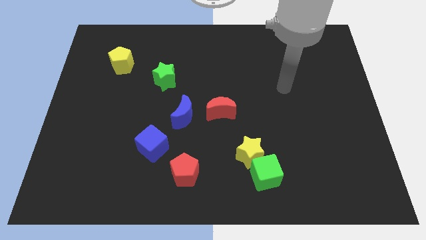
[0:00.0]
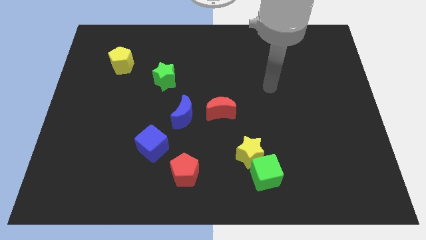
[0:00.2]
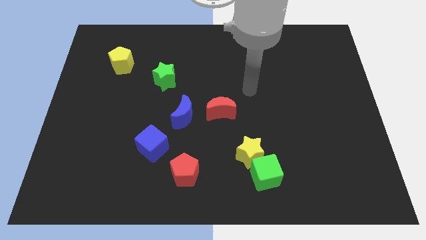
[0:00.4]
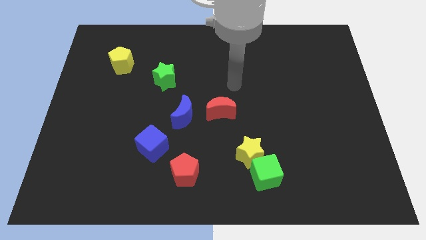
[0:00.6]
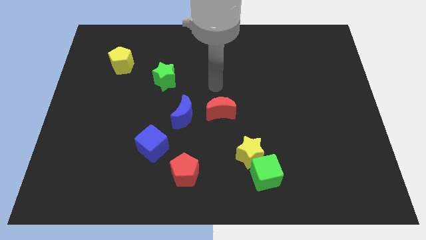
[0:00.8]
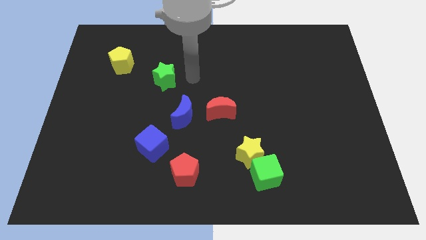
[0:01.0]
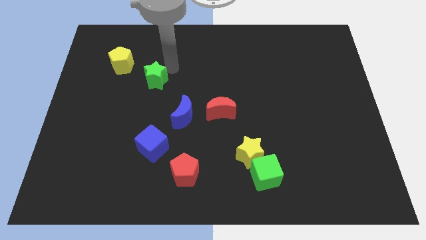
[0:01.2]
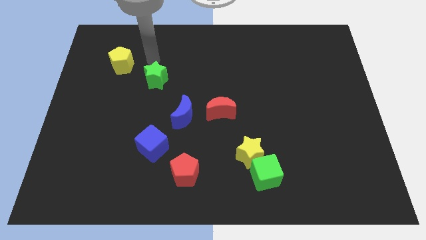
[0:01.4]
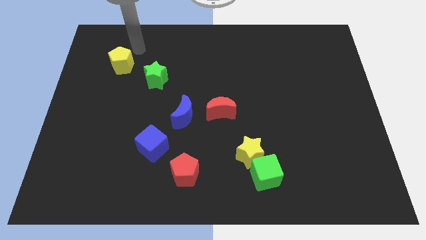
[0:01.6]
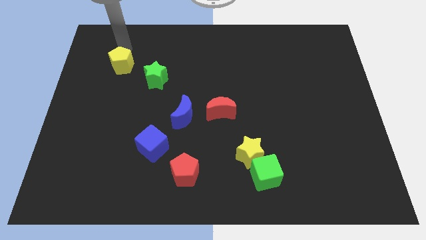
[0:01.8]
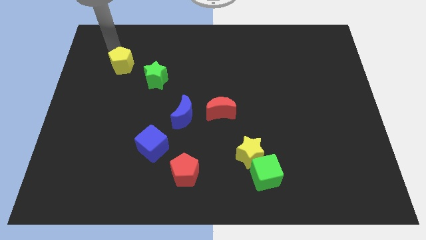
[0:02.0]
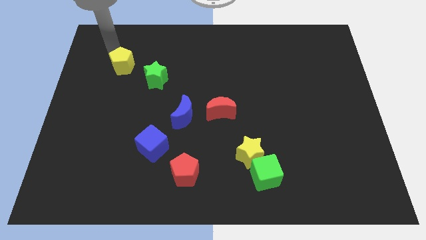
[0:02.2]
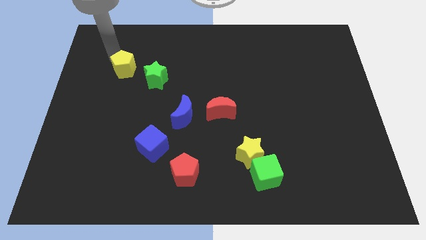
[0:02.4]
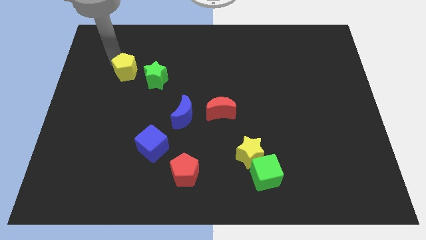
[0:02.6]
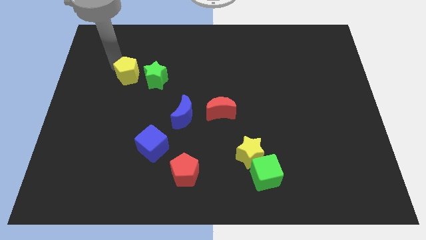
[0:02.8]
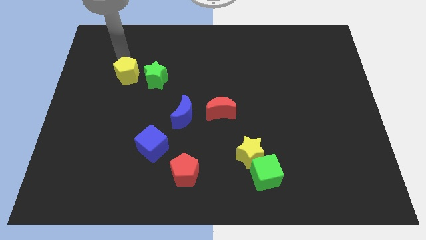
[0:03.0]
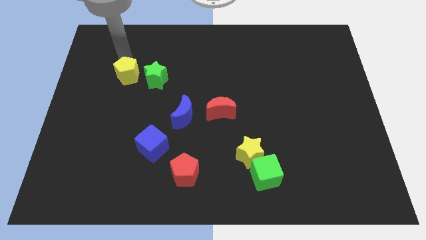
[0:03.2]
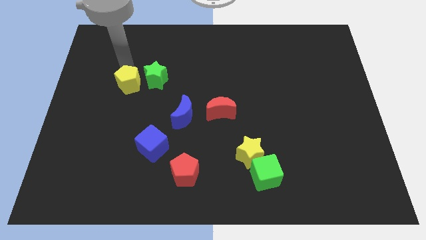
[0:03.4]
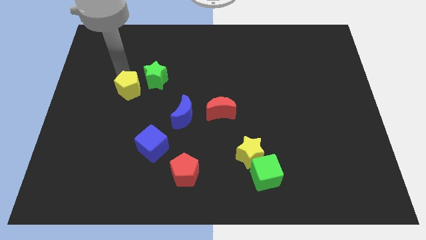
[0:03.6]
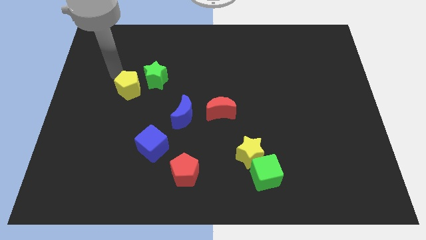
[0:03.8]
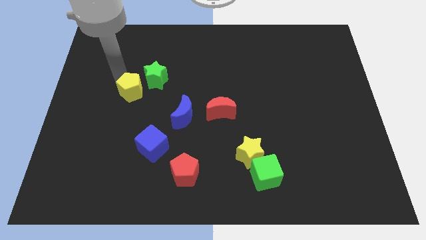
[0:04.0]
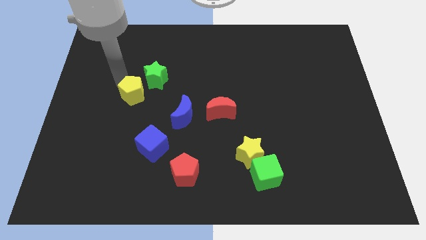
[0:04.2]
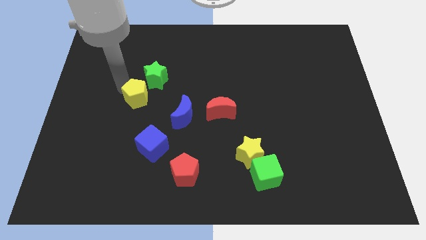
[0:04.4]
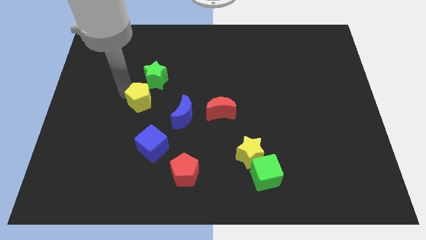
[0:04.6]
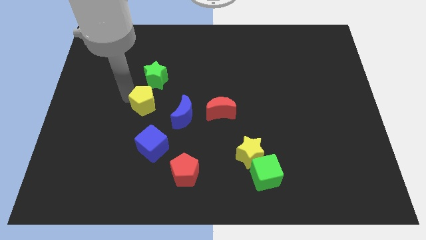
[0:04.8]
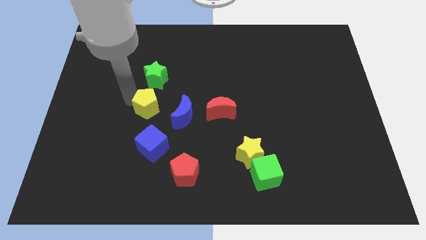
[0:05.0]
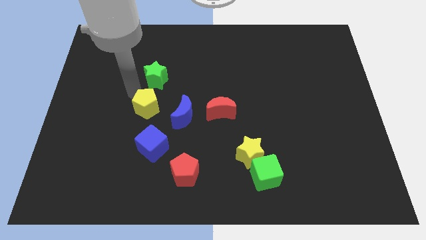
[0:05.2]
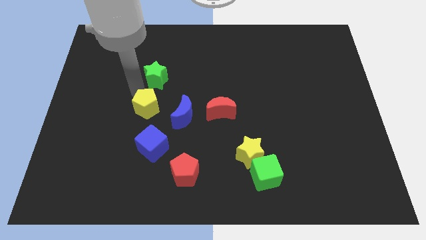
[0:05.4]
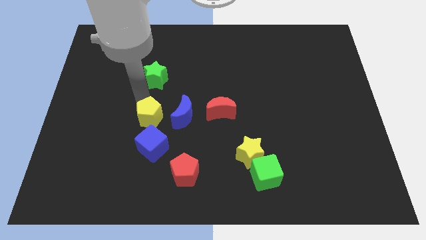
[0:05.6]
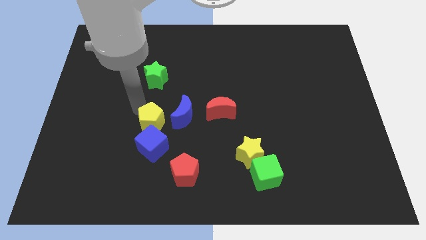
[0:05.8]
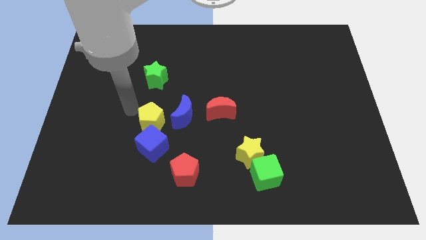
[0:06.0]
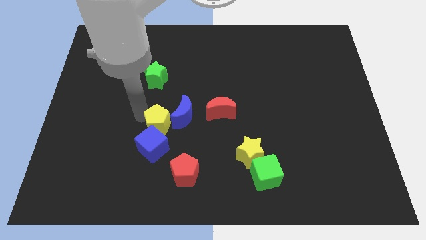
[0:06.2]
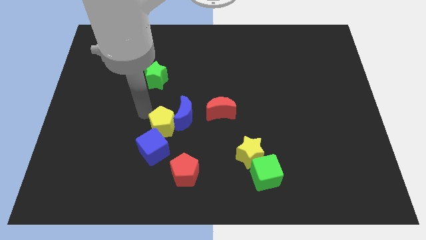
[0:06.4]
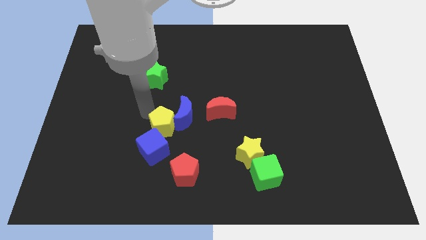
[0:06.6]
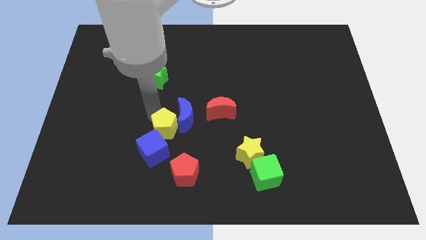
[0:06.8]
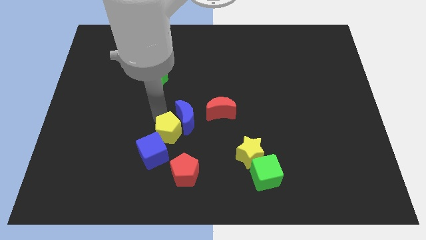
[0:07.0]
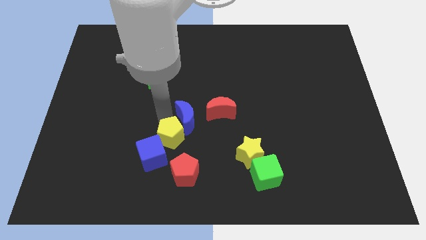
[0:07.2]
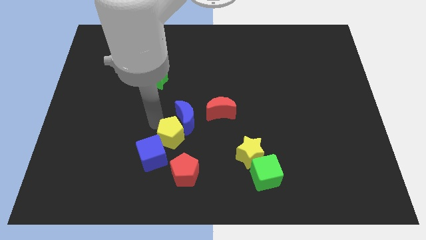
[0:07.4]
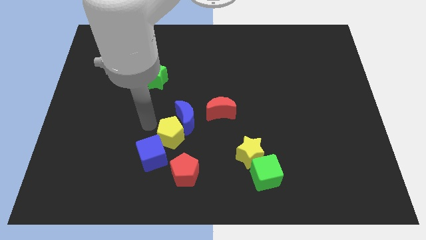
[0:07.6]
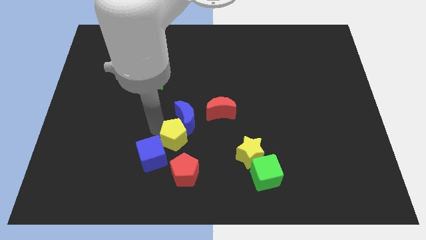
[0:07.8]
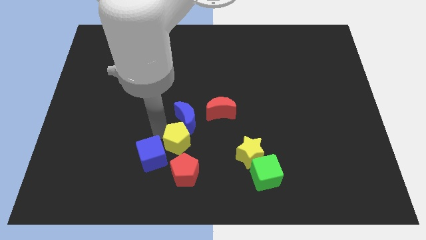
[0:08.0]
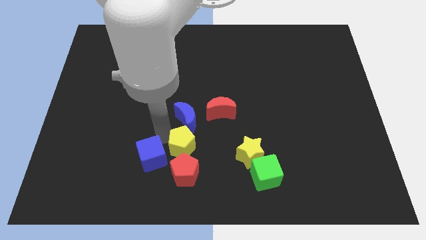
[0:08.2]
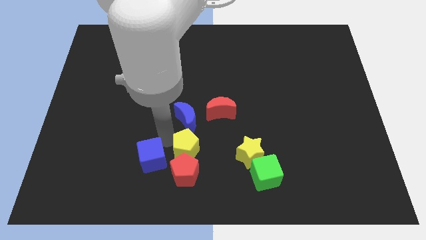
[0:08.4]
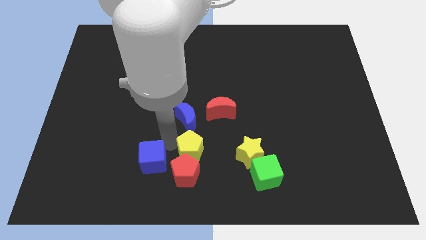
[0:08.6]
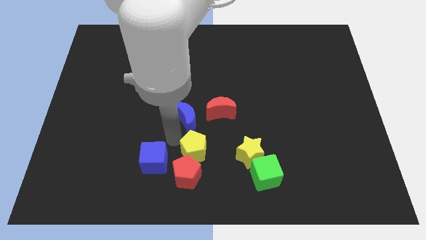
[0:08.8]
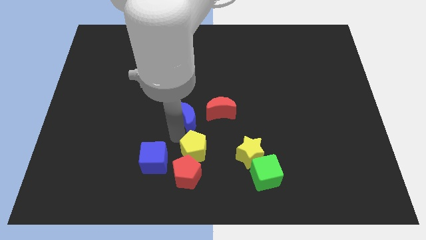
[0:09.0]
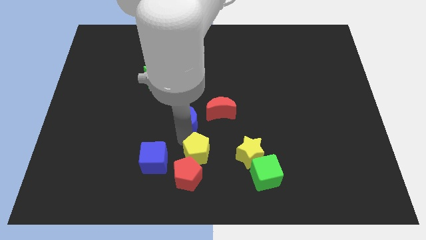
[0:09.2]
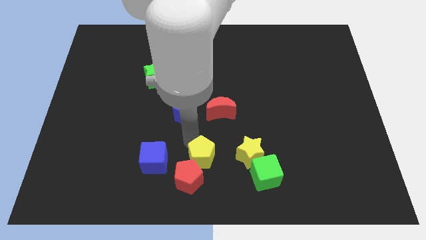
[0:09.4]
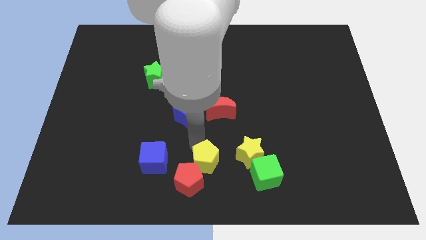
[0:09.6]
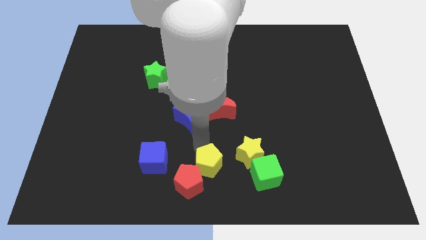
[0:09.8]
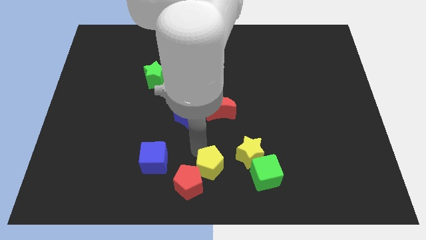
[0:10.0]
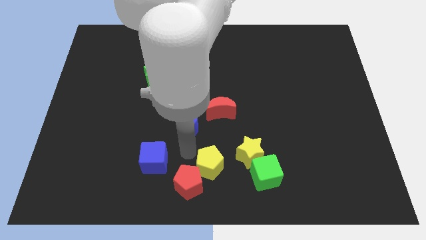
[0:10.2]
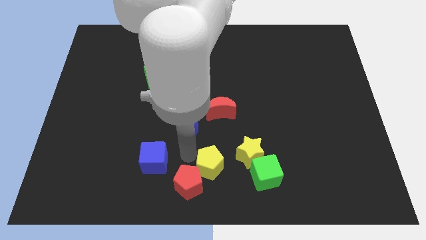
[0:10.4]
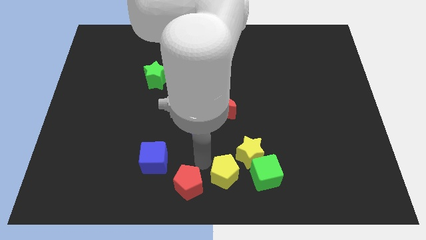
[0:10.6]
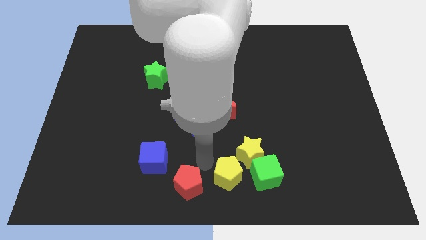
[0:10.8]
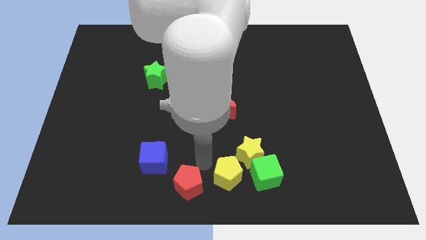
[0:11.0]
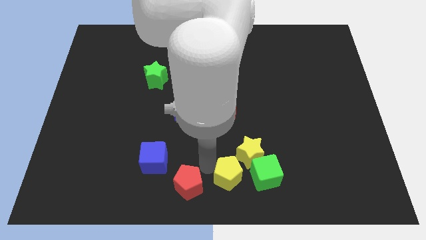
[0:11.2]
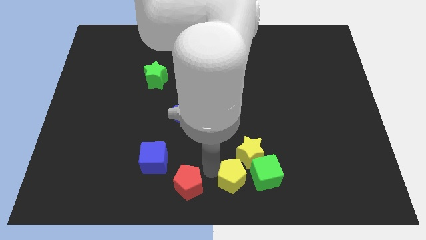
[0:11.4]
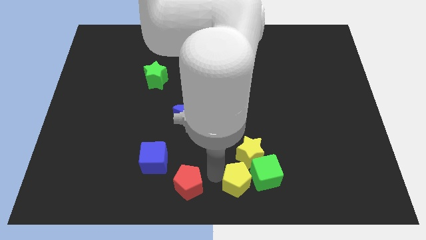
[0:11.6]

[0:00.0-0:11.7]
put the yellow pentagon to the green cube
